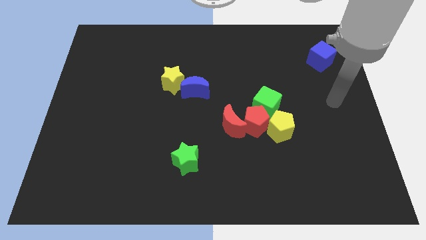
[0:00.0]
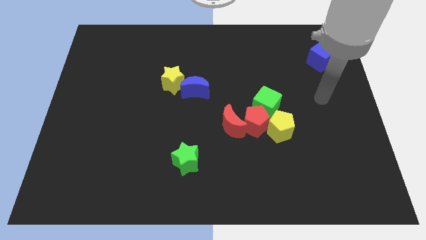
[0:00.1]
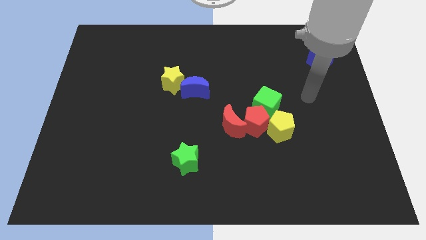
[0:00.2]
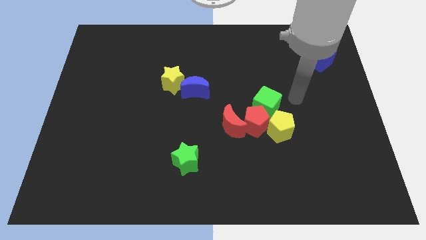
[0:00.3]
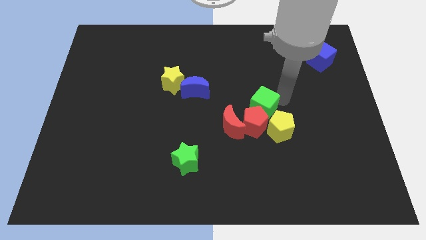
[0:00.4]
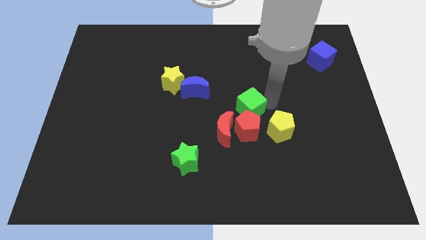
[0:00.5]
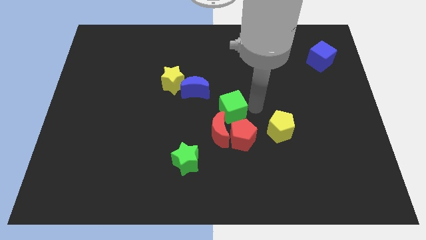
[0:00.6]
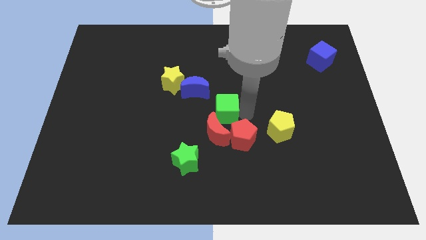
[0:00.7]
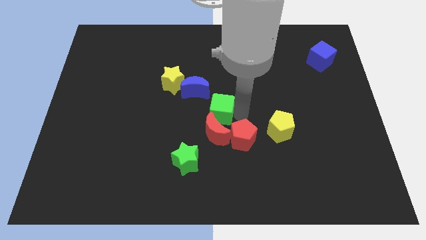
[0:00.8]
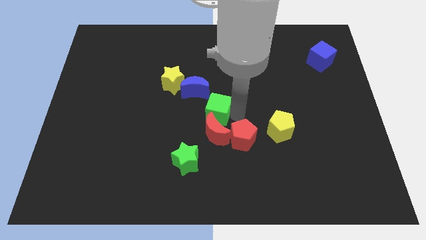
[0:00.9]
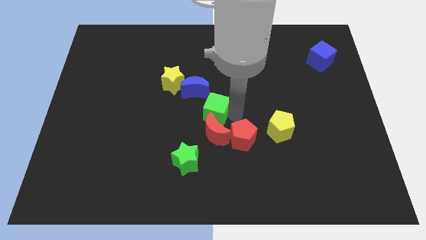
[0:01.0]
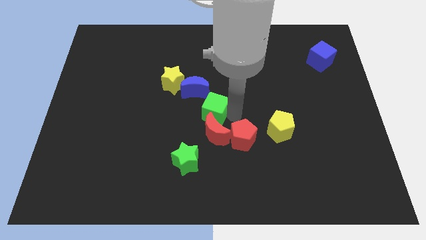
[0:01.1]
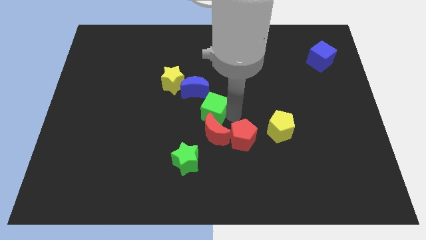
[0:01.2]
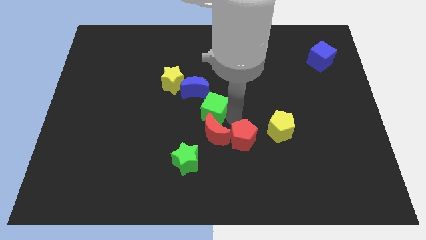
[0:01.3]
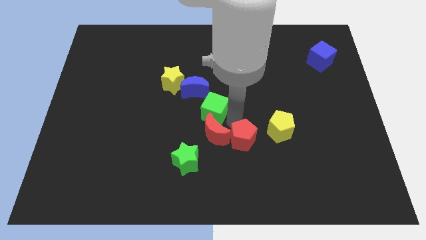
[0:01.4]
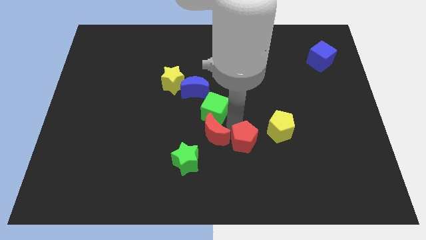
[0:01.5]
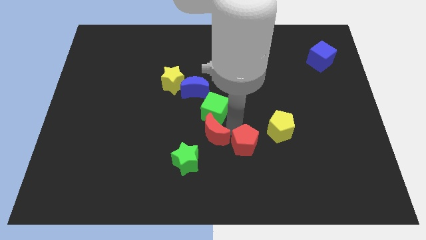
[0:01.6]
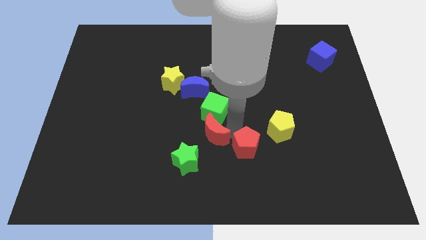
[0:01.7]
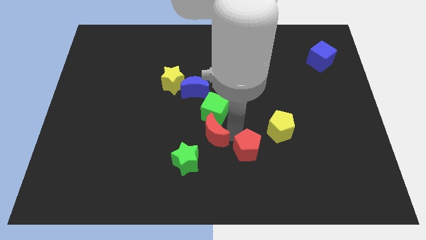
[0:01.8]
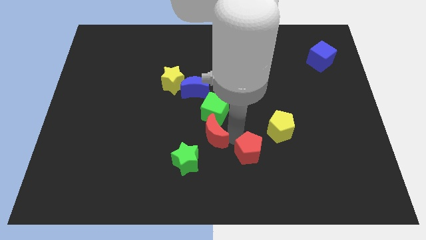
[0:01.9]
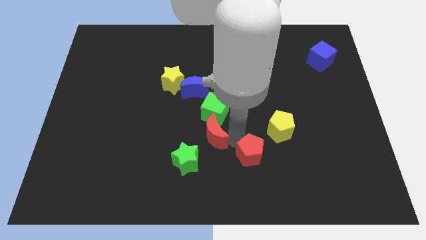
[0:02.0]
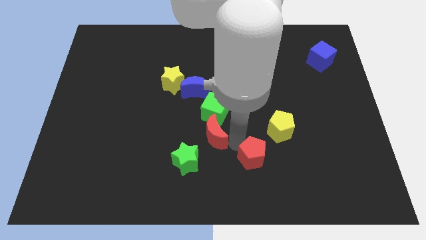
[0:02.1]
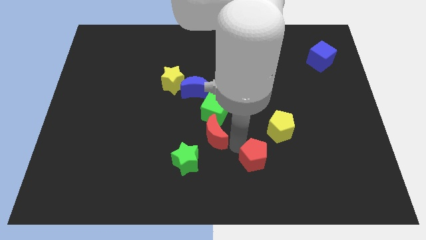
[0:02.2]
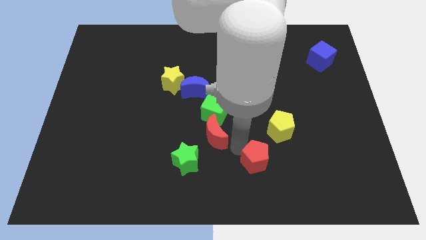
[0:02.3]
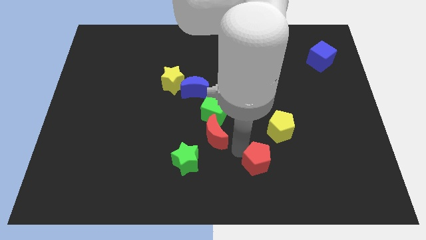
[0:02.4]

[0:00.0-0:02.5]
separate the red pentagon from the red moon, green cube, and yellow pentagon

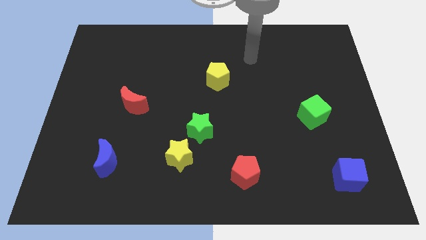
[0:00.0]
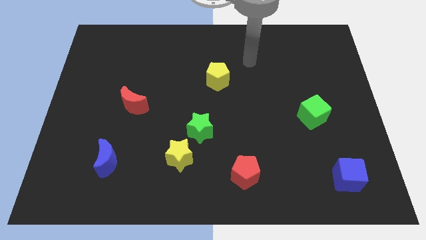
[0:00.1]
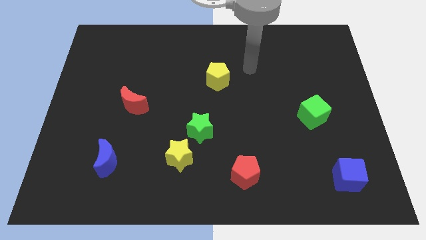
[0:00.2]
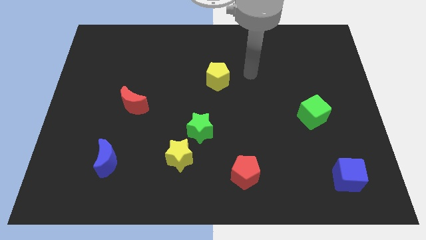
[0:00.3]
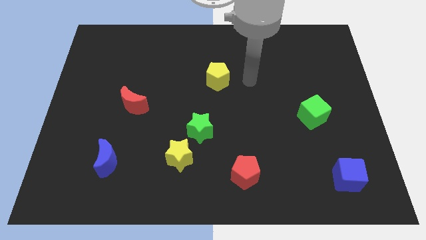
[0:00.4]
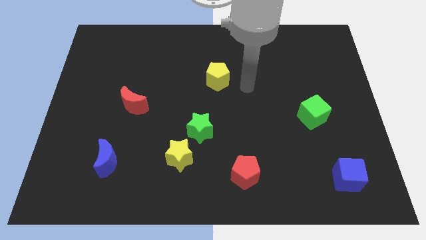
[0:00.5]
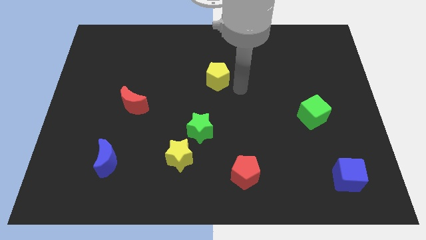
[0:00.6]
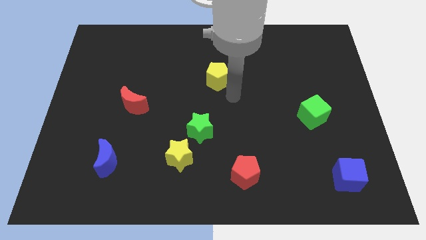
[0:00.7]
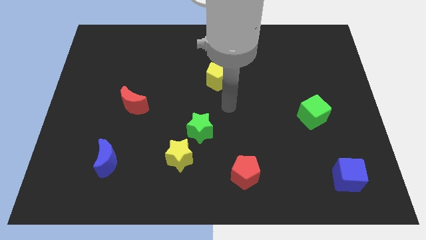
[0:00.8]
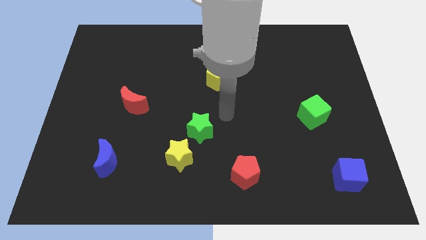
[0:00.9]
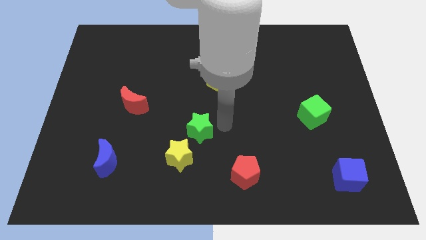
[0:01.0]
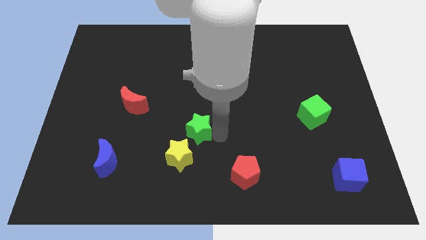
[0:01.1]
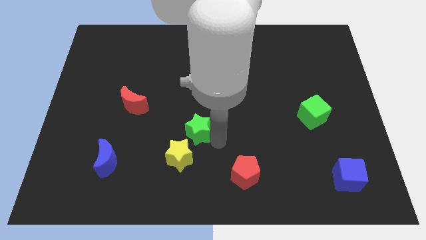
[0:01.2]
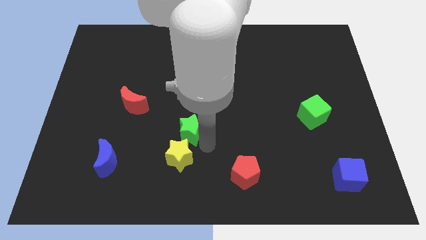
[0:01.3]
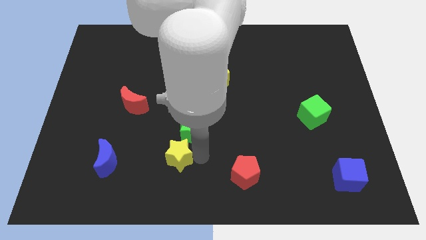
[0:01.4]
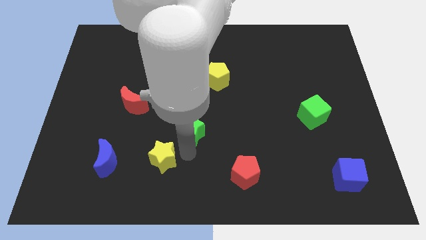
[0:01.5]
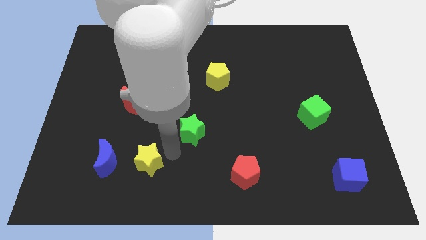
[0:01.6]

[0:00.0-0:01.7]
move the green star away from the yellow star

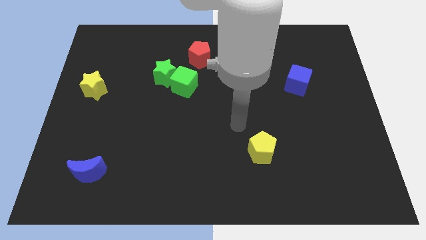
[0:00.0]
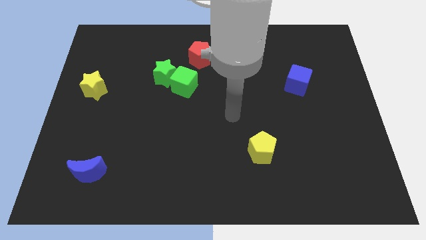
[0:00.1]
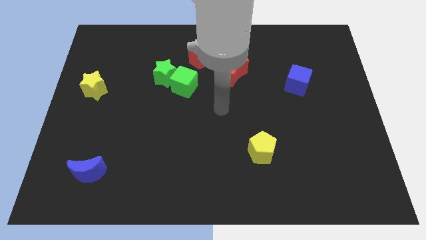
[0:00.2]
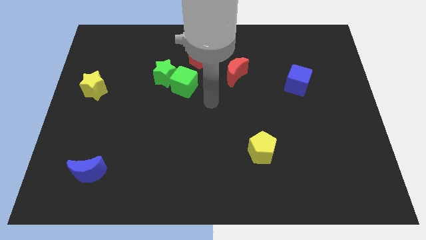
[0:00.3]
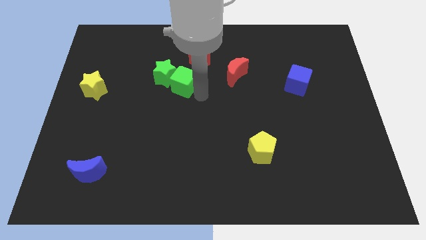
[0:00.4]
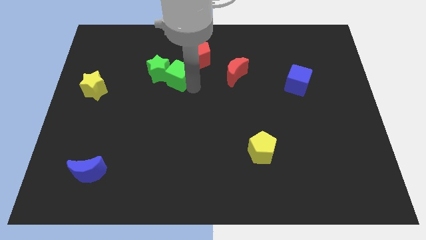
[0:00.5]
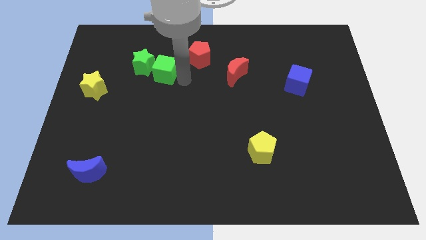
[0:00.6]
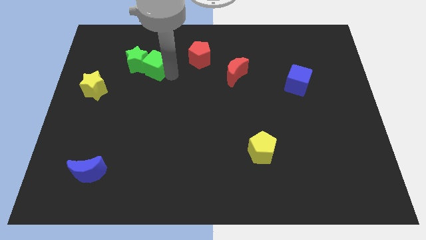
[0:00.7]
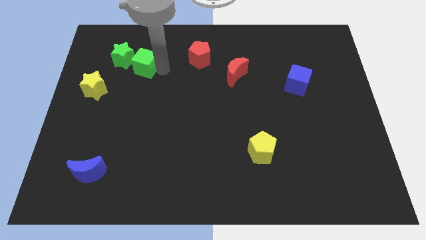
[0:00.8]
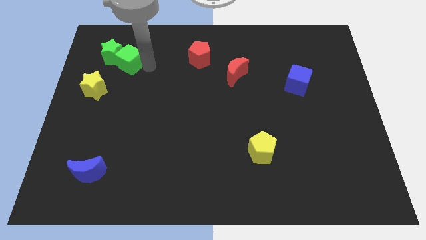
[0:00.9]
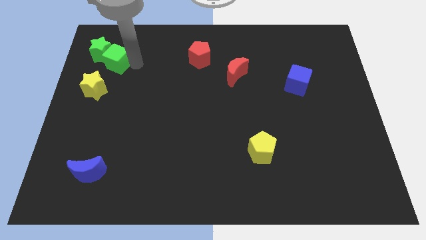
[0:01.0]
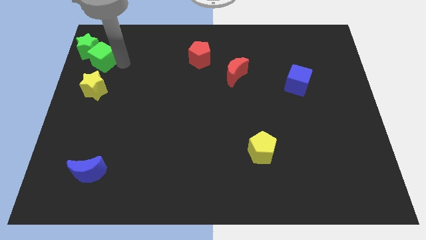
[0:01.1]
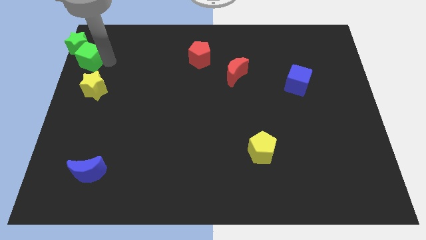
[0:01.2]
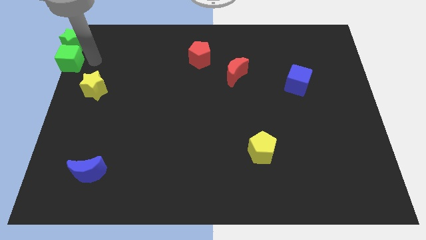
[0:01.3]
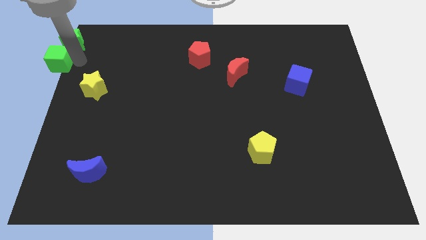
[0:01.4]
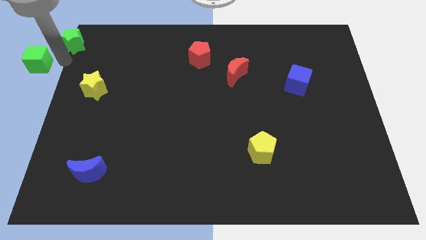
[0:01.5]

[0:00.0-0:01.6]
move the green star away from the green cube

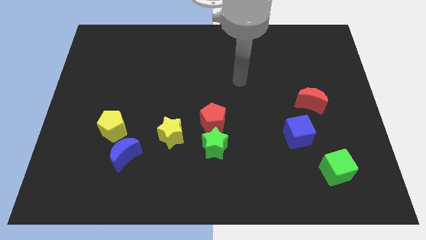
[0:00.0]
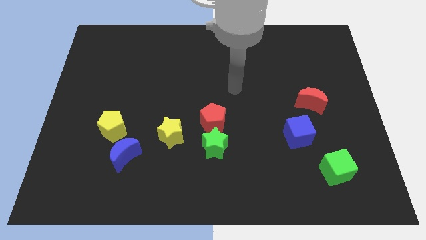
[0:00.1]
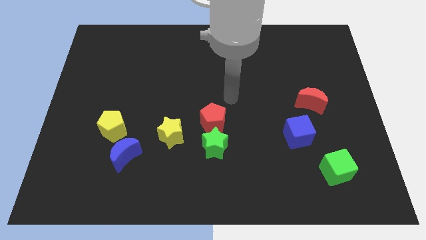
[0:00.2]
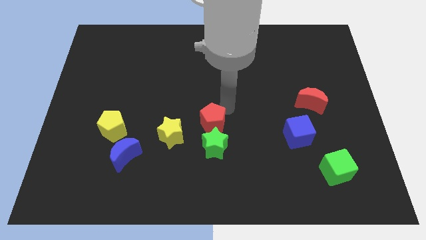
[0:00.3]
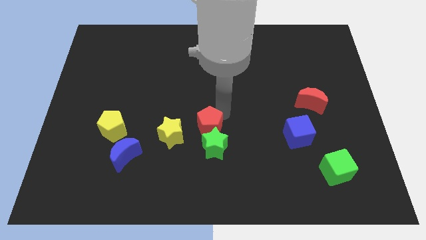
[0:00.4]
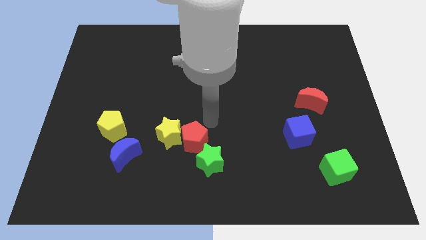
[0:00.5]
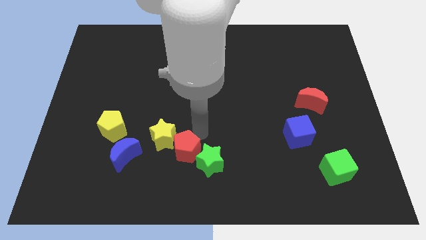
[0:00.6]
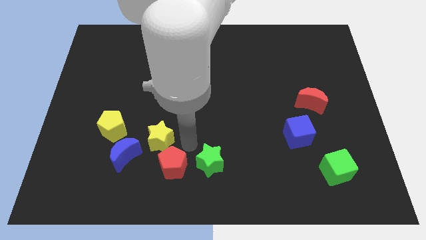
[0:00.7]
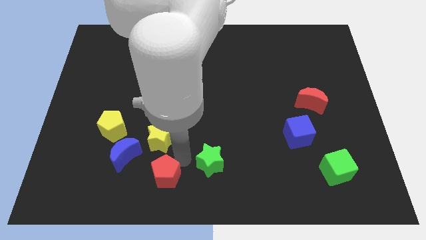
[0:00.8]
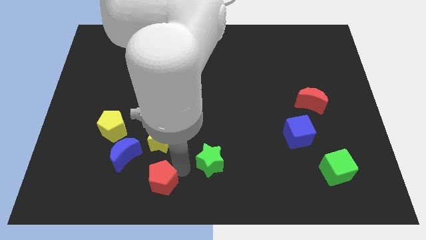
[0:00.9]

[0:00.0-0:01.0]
pull the green star apart from the red pentagon

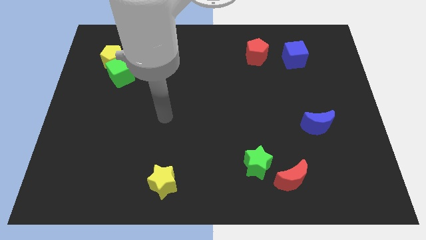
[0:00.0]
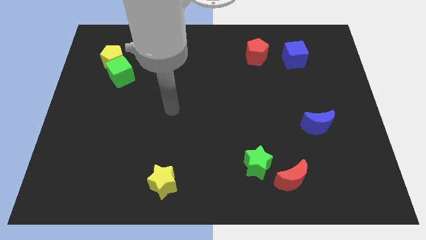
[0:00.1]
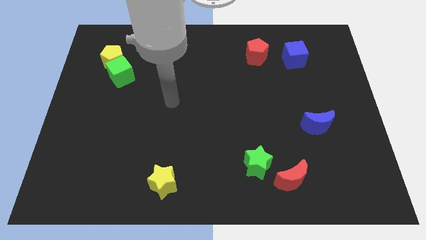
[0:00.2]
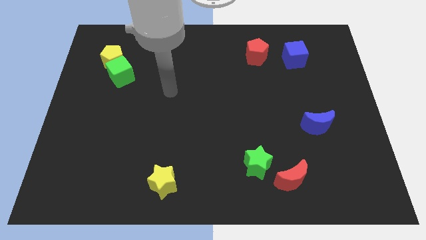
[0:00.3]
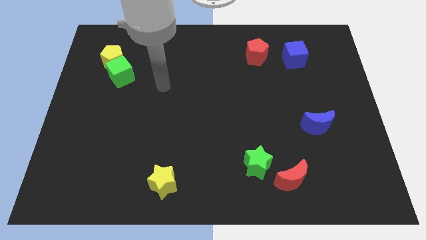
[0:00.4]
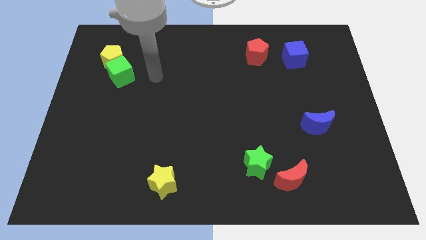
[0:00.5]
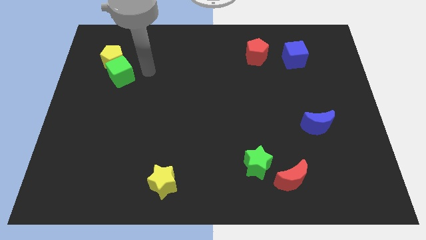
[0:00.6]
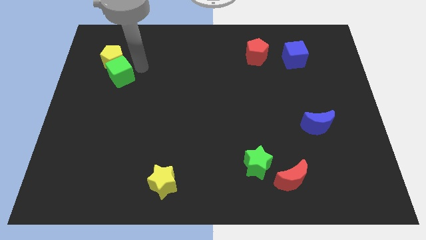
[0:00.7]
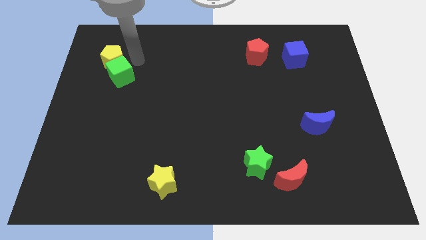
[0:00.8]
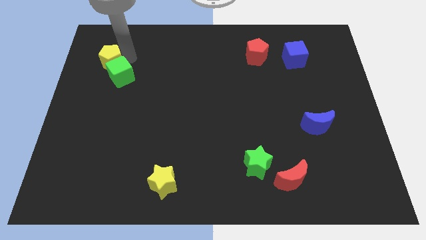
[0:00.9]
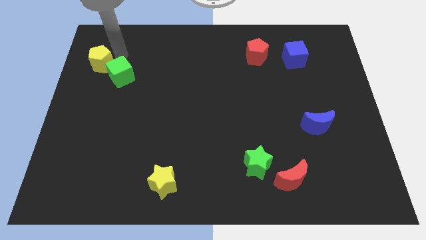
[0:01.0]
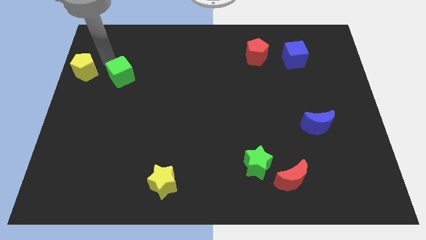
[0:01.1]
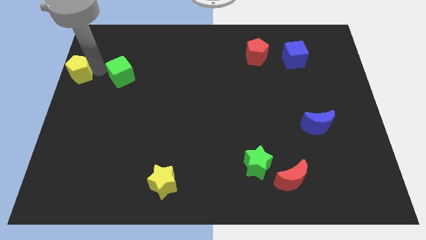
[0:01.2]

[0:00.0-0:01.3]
separate the green cube from the yellow pentagon

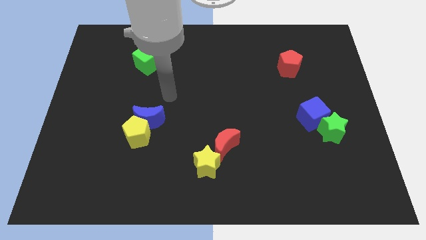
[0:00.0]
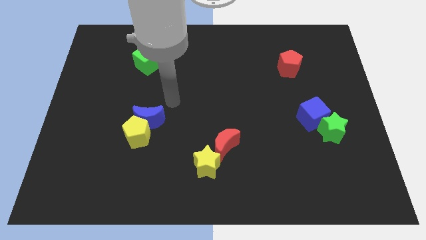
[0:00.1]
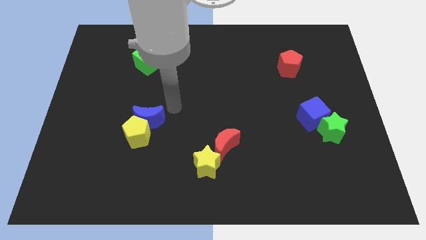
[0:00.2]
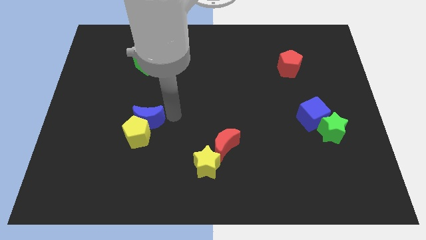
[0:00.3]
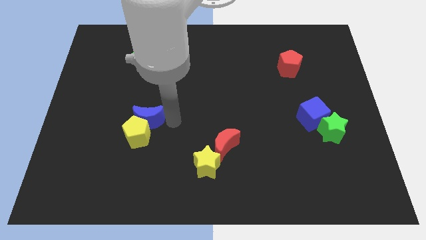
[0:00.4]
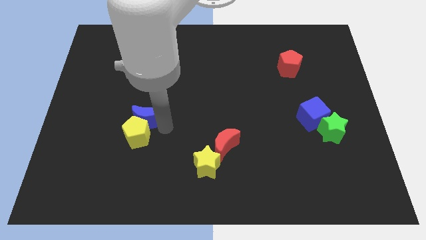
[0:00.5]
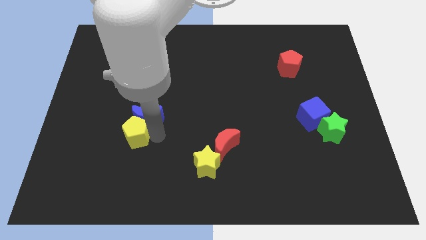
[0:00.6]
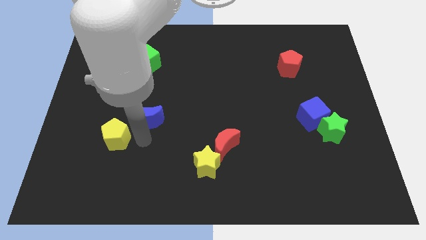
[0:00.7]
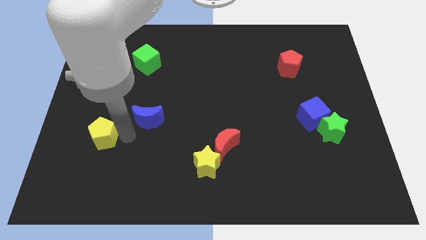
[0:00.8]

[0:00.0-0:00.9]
move the blue moon away from the yellow pentagon

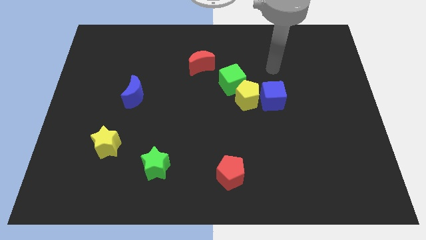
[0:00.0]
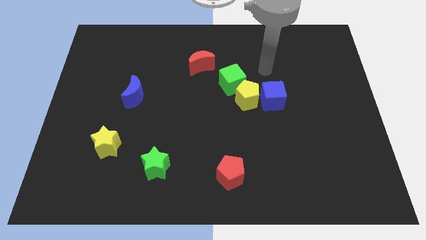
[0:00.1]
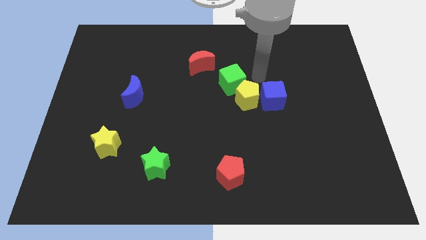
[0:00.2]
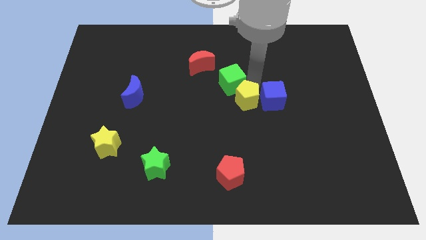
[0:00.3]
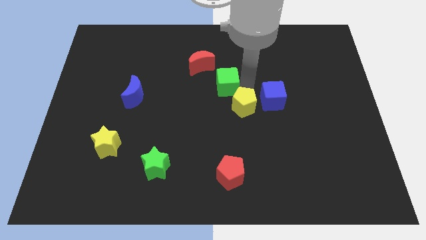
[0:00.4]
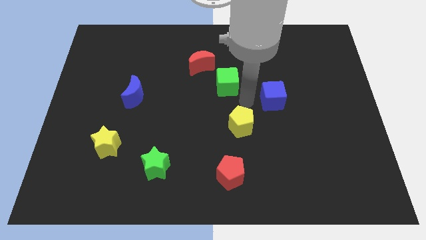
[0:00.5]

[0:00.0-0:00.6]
pull the blue cube apart from the yellow pentagon
